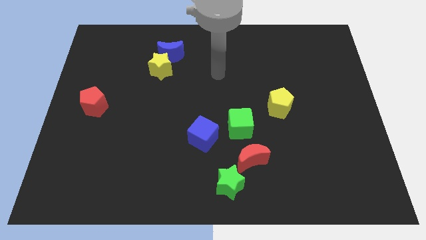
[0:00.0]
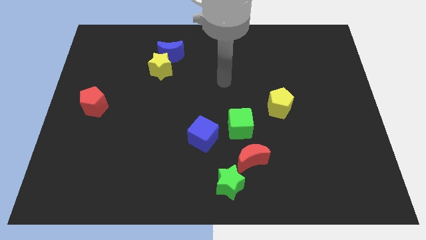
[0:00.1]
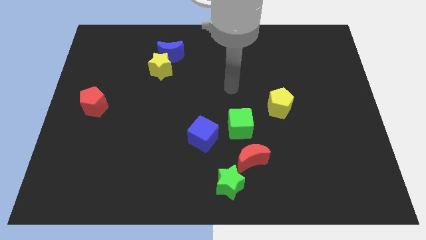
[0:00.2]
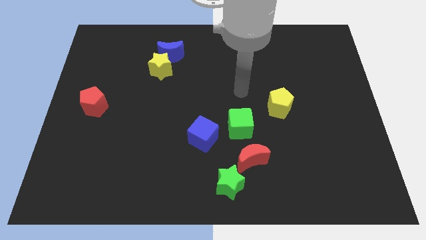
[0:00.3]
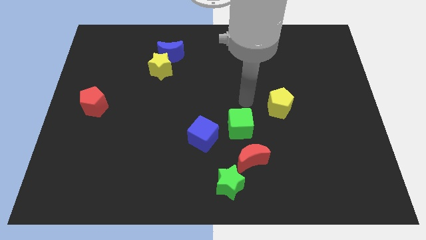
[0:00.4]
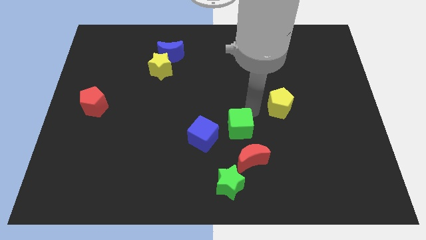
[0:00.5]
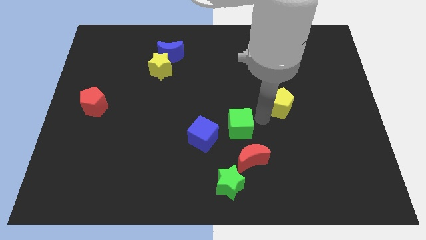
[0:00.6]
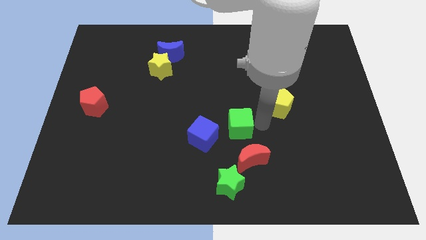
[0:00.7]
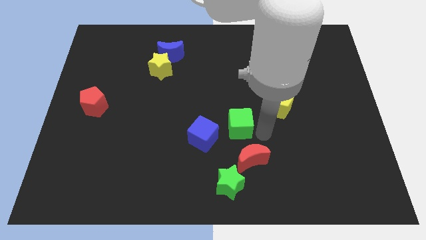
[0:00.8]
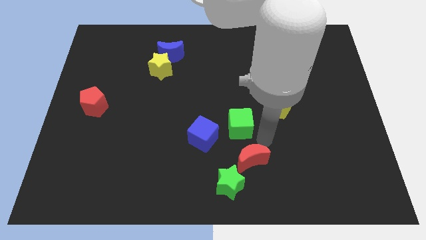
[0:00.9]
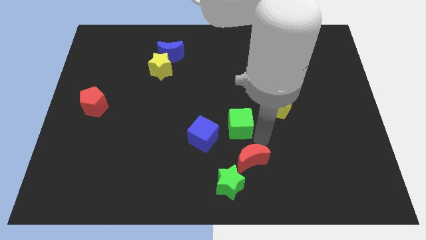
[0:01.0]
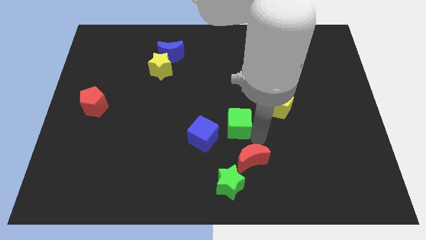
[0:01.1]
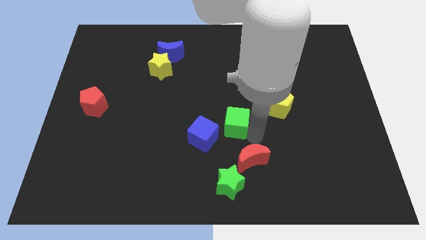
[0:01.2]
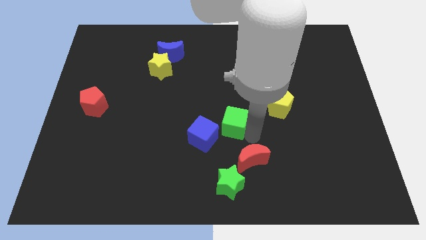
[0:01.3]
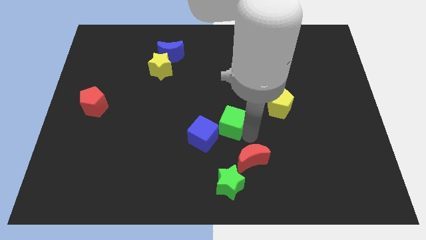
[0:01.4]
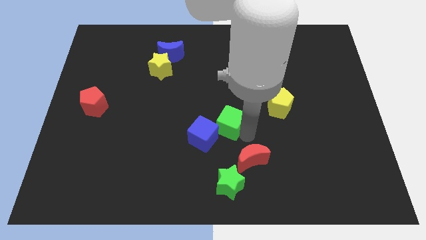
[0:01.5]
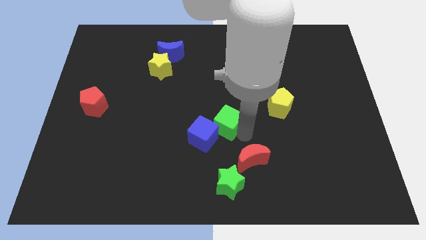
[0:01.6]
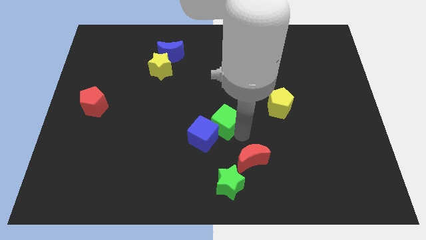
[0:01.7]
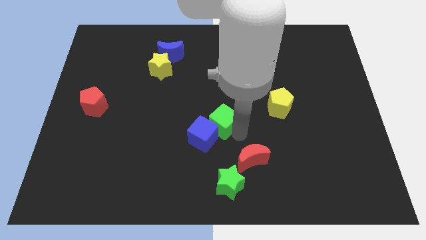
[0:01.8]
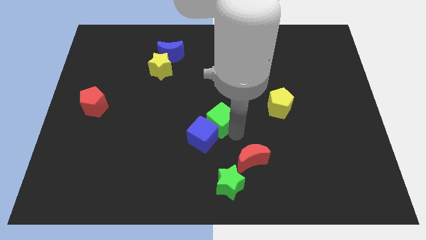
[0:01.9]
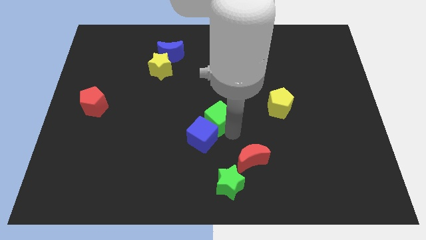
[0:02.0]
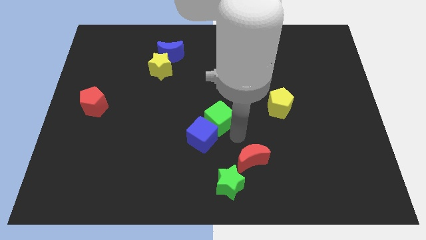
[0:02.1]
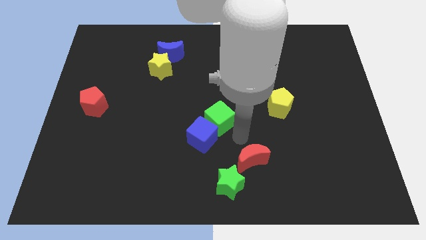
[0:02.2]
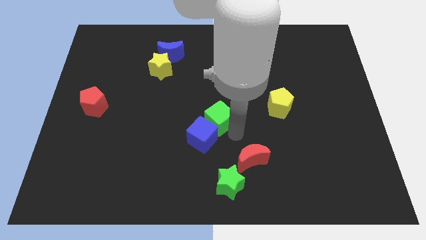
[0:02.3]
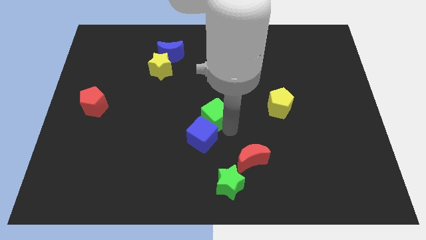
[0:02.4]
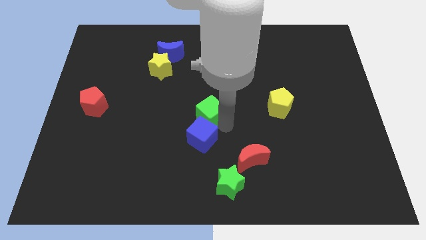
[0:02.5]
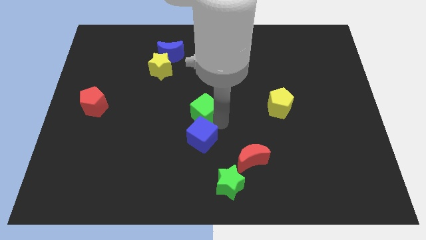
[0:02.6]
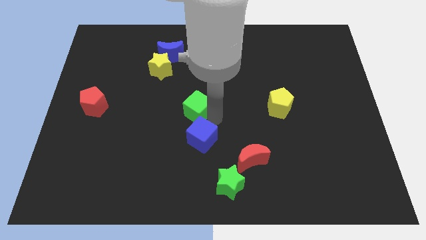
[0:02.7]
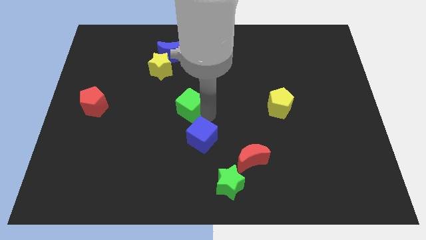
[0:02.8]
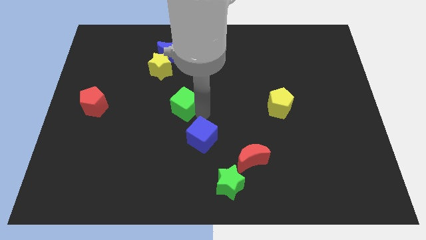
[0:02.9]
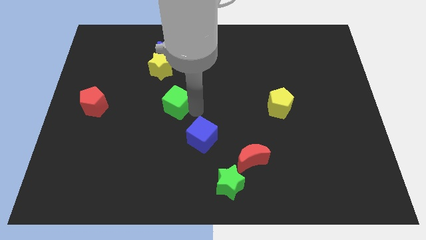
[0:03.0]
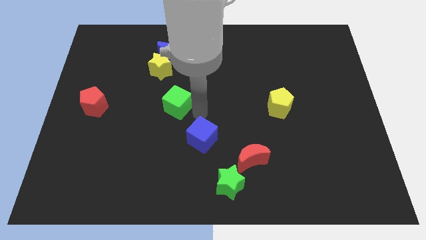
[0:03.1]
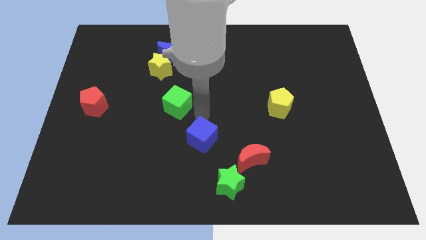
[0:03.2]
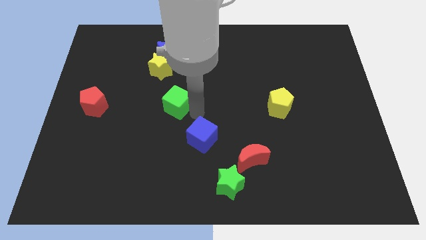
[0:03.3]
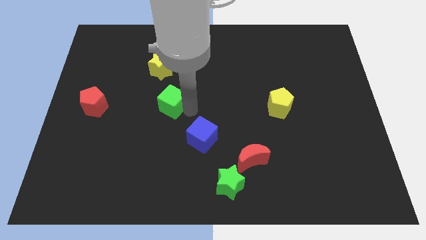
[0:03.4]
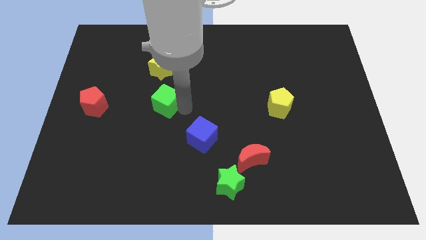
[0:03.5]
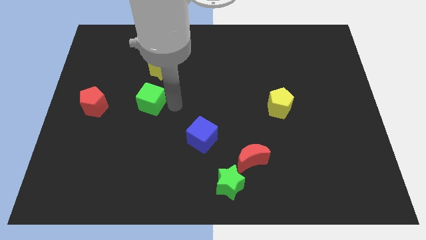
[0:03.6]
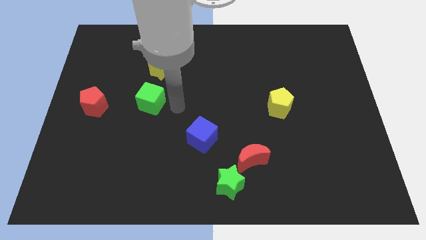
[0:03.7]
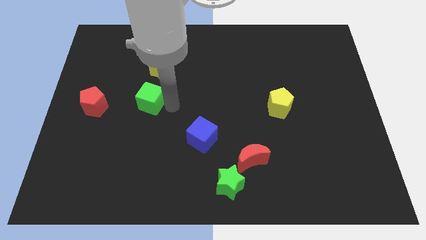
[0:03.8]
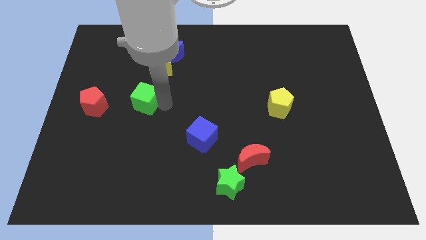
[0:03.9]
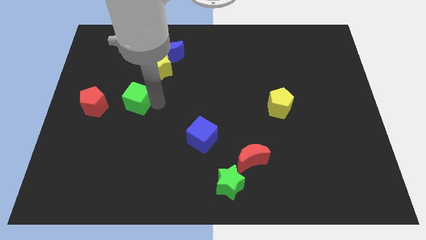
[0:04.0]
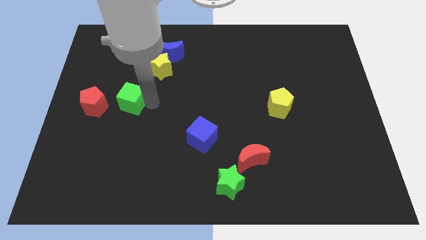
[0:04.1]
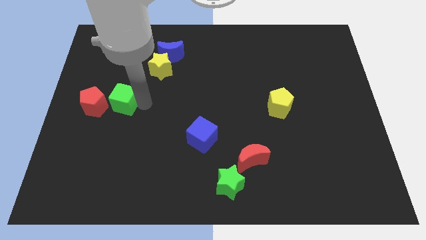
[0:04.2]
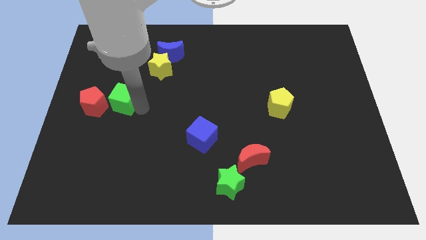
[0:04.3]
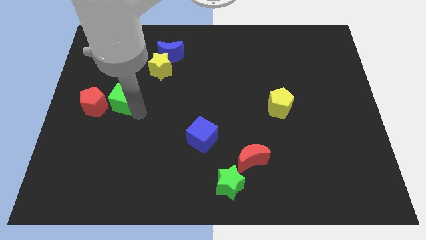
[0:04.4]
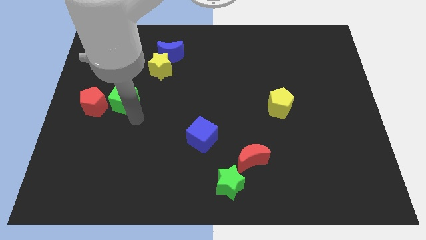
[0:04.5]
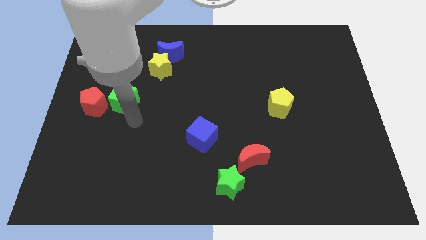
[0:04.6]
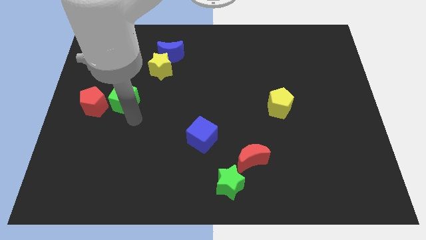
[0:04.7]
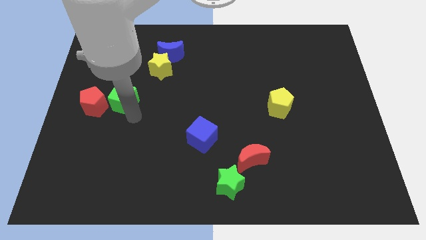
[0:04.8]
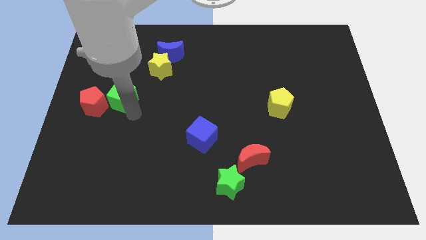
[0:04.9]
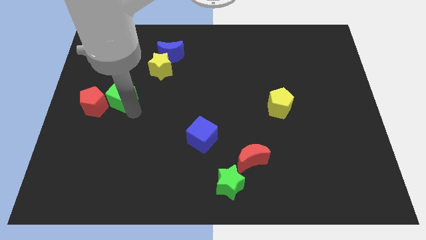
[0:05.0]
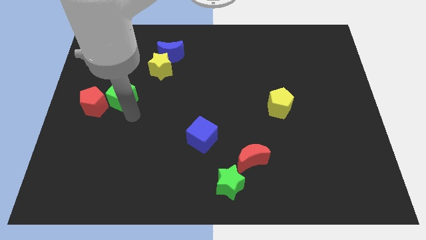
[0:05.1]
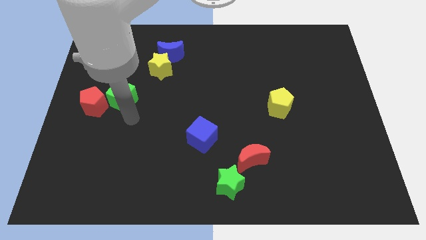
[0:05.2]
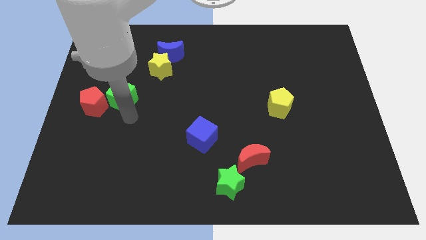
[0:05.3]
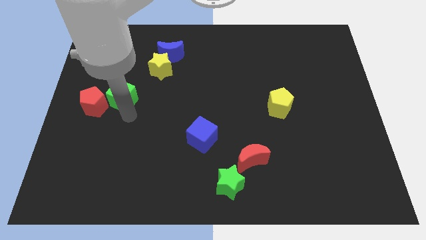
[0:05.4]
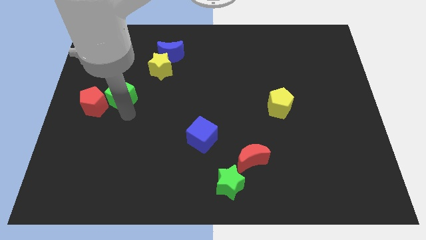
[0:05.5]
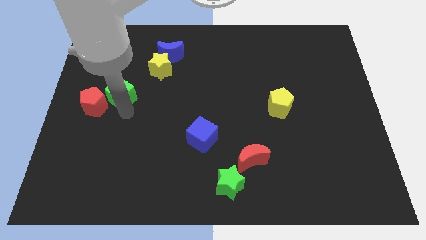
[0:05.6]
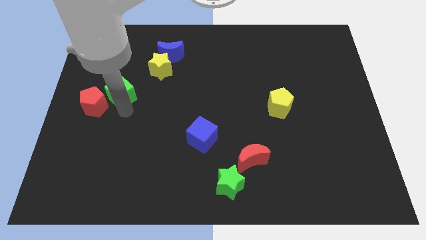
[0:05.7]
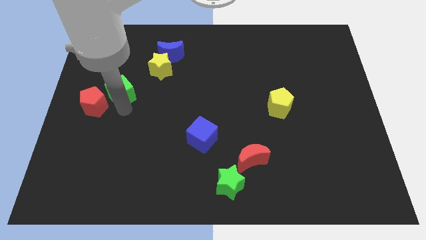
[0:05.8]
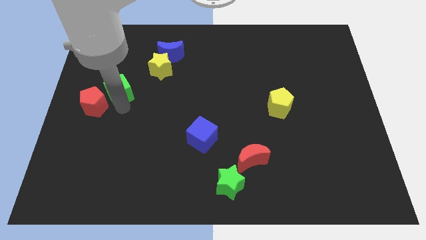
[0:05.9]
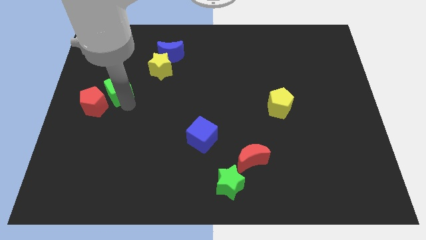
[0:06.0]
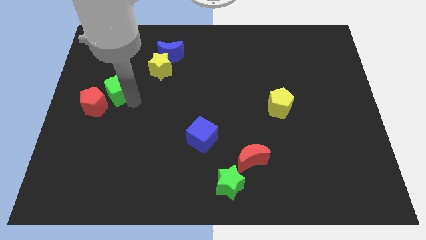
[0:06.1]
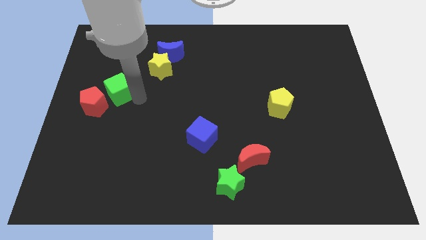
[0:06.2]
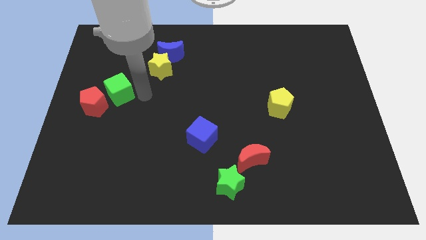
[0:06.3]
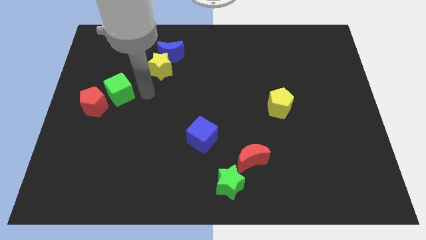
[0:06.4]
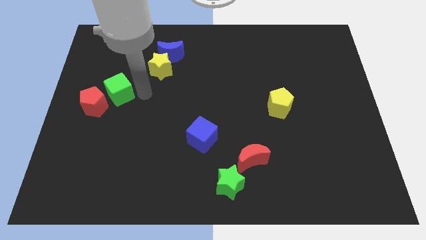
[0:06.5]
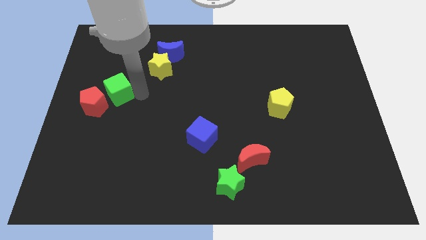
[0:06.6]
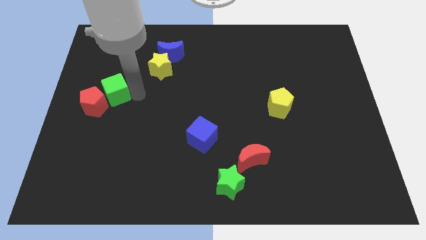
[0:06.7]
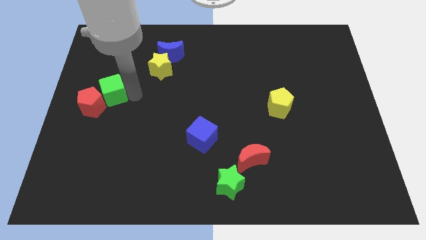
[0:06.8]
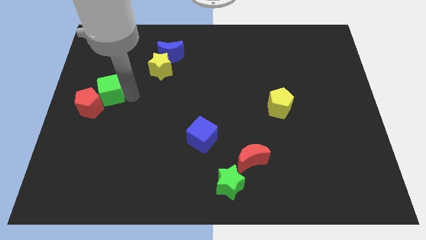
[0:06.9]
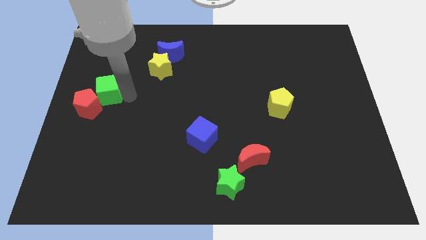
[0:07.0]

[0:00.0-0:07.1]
move the green cube to the left side
